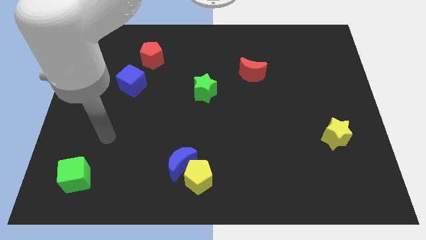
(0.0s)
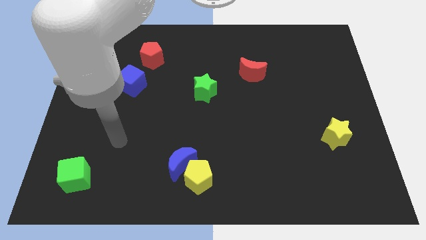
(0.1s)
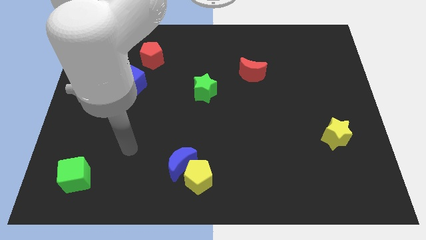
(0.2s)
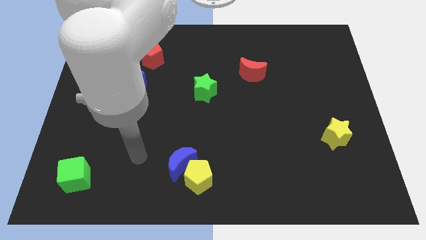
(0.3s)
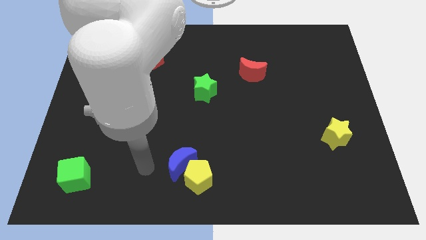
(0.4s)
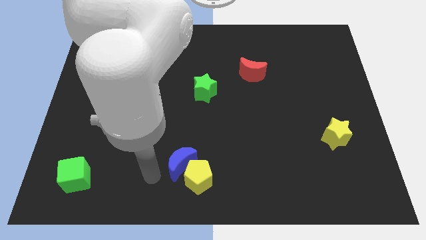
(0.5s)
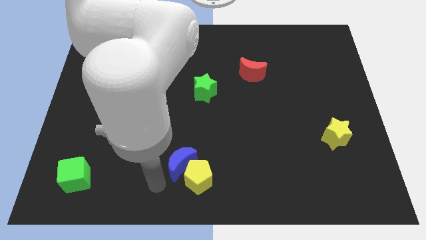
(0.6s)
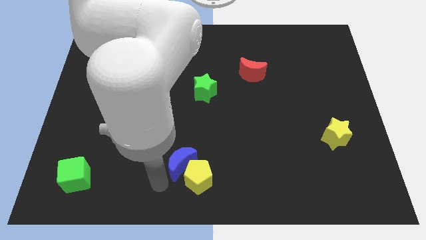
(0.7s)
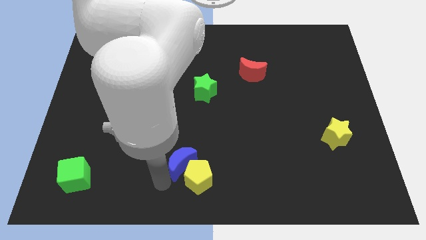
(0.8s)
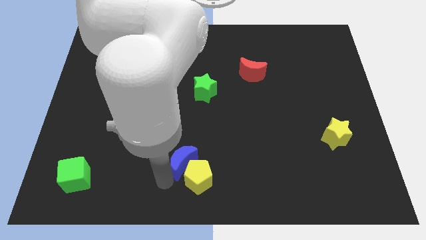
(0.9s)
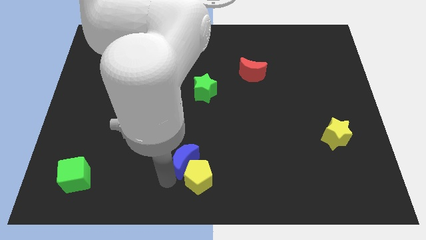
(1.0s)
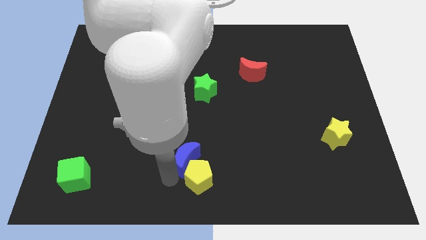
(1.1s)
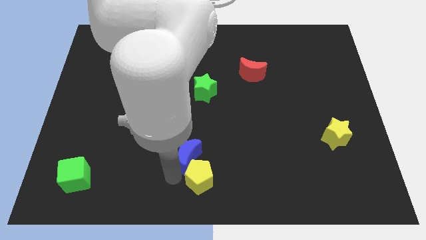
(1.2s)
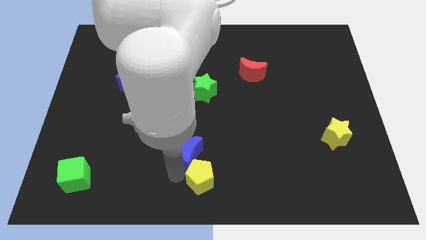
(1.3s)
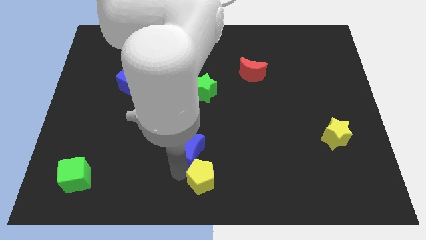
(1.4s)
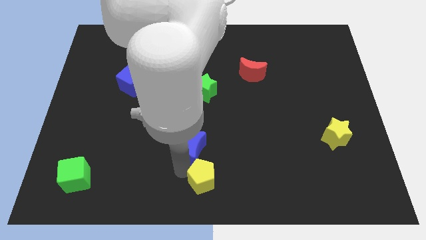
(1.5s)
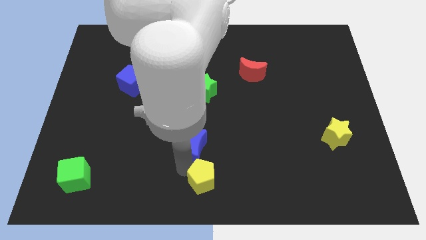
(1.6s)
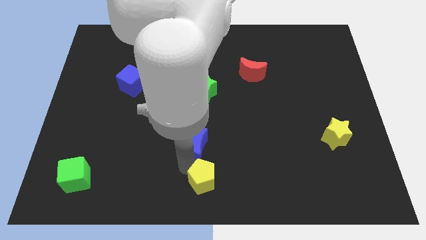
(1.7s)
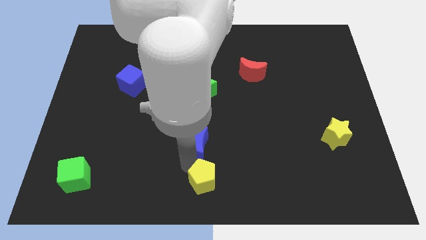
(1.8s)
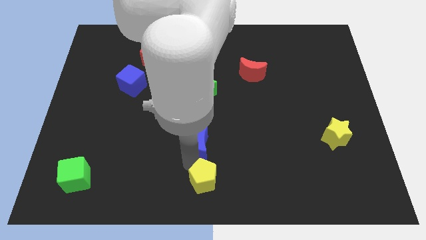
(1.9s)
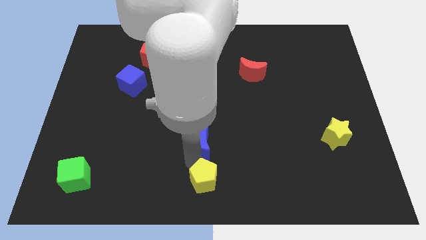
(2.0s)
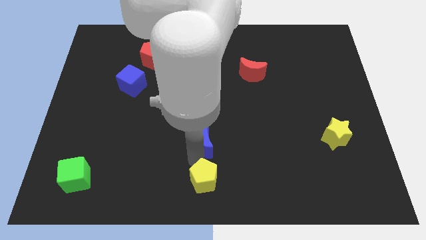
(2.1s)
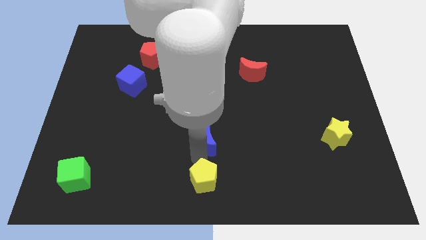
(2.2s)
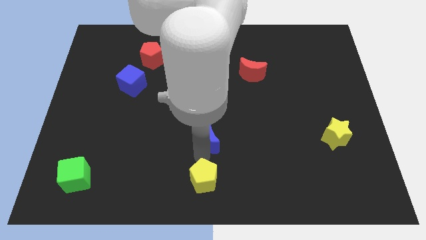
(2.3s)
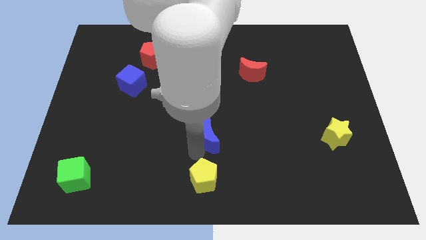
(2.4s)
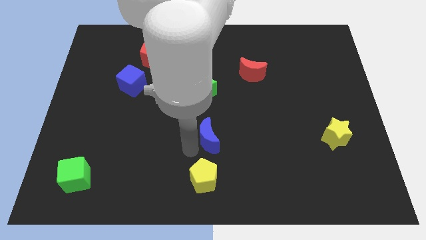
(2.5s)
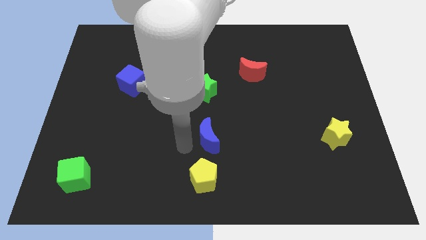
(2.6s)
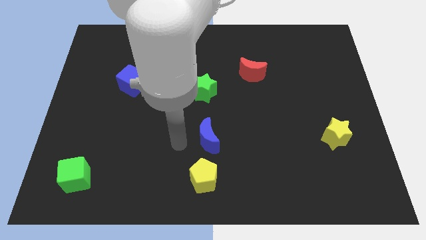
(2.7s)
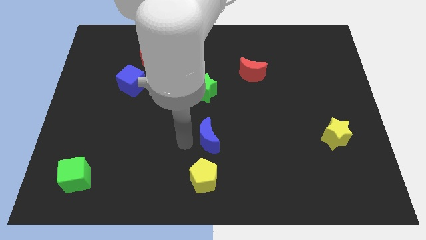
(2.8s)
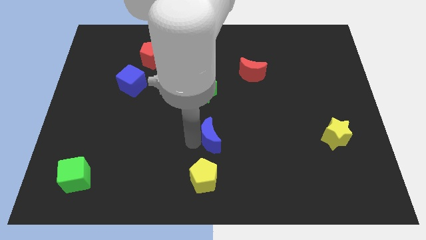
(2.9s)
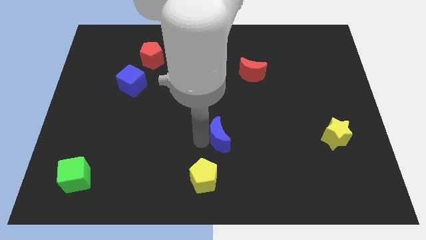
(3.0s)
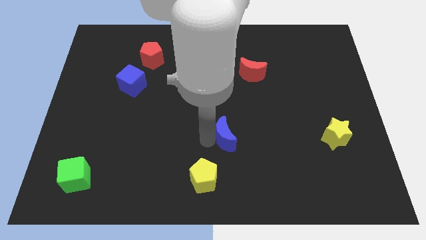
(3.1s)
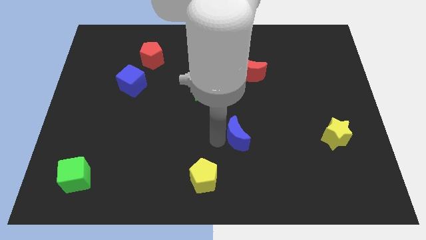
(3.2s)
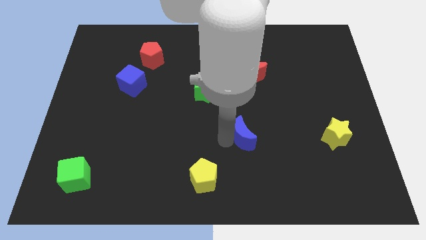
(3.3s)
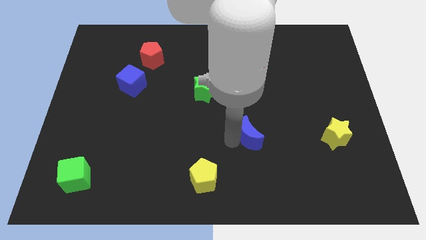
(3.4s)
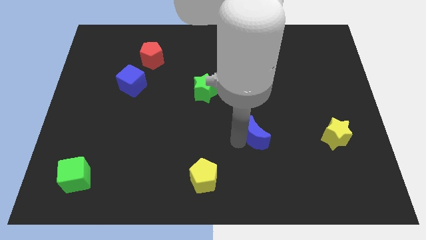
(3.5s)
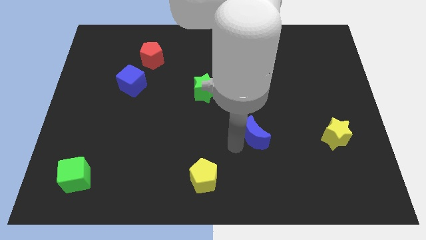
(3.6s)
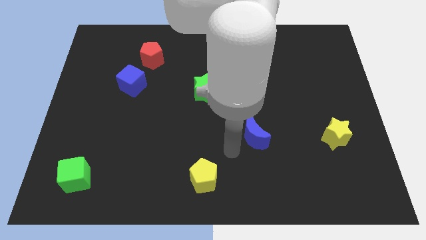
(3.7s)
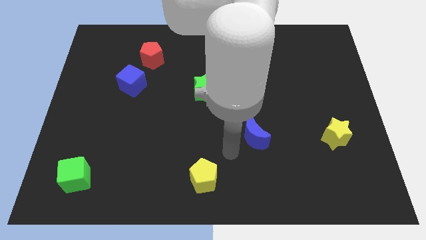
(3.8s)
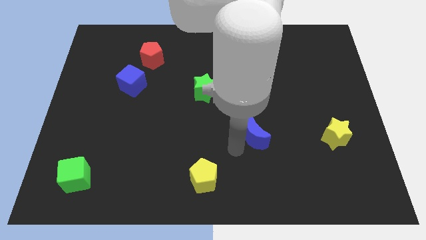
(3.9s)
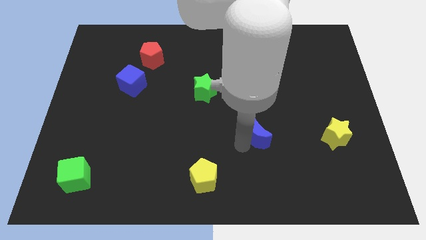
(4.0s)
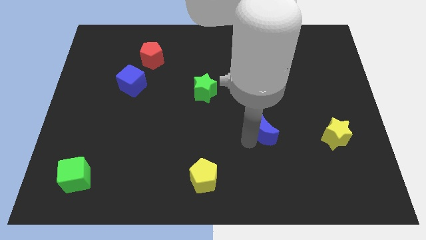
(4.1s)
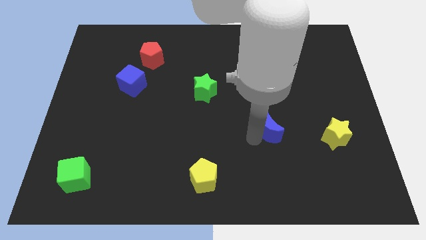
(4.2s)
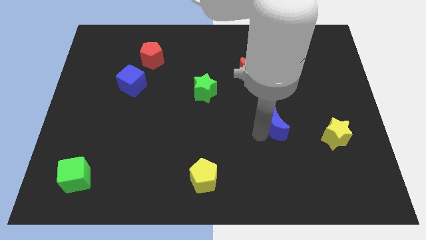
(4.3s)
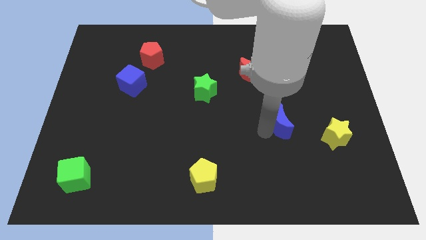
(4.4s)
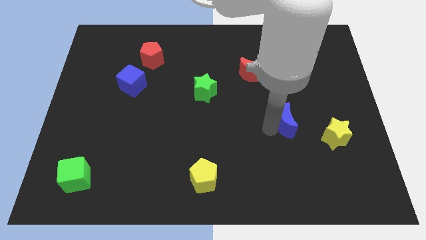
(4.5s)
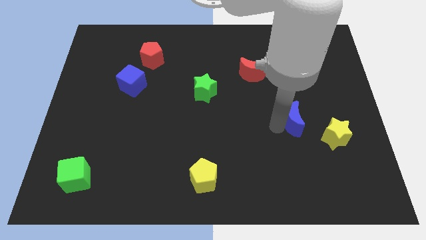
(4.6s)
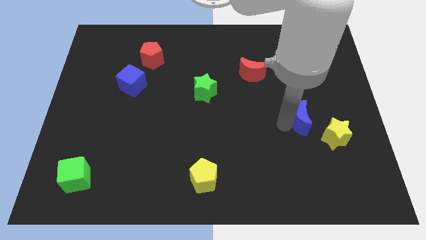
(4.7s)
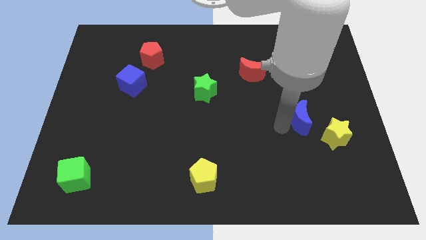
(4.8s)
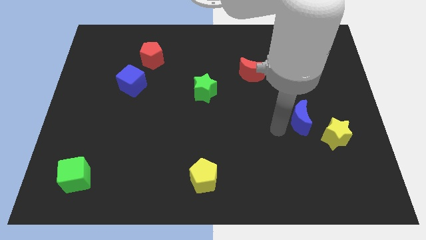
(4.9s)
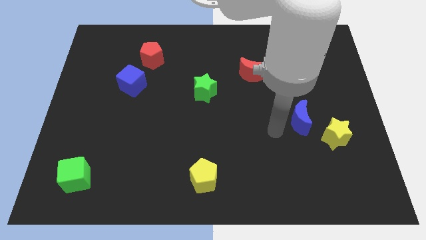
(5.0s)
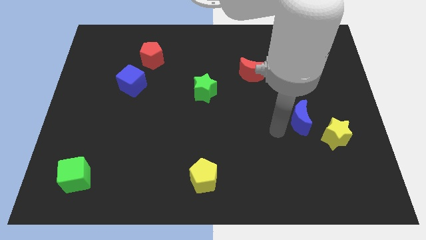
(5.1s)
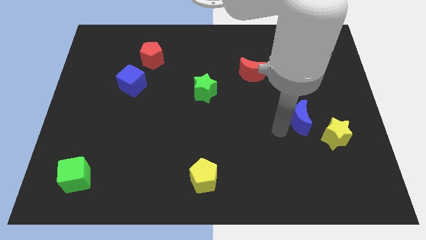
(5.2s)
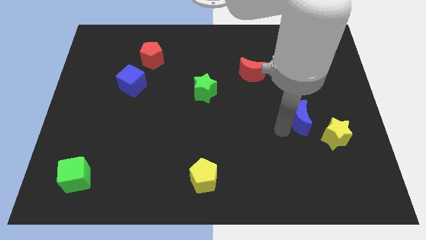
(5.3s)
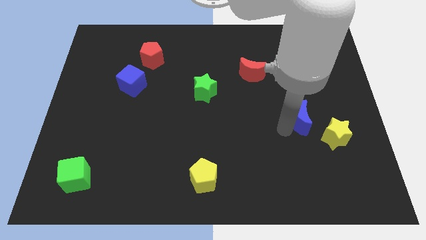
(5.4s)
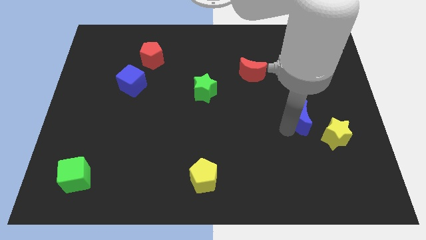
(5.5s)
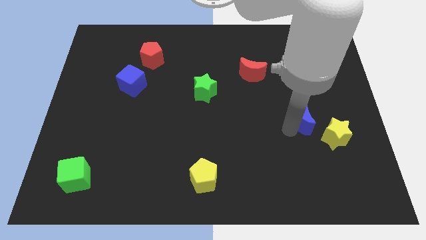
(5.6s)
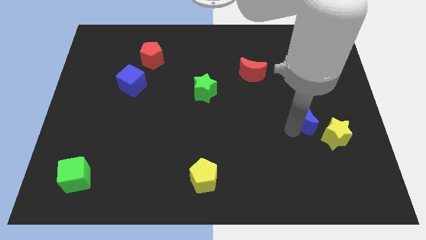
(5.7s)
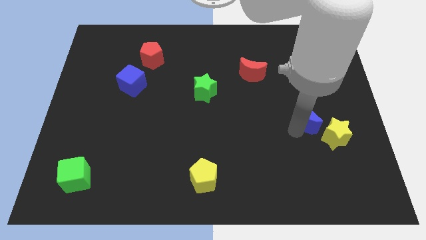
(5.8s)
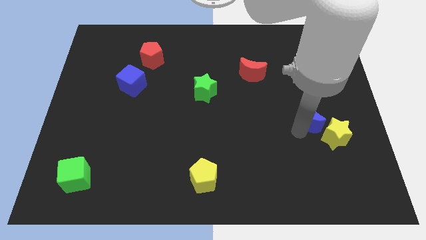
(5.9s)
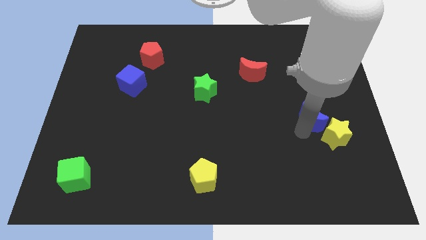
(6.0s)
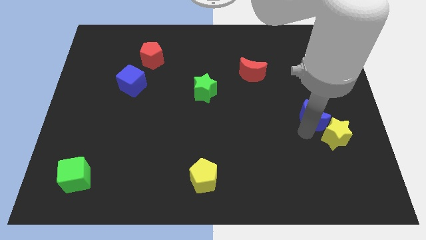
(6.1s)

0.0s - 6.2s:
push the blue moon to the top of the yellow star

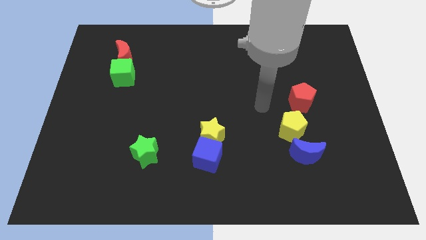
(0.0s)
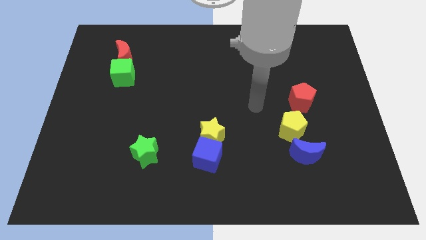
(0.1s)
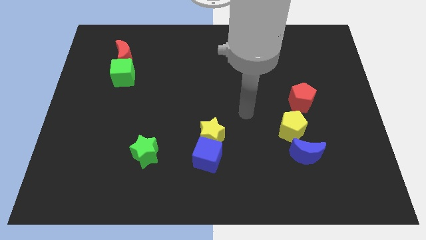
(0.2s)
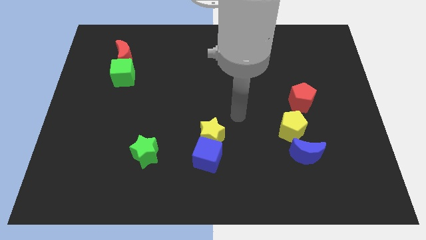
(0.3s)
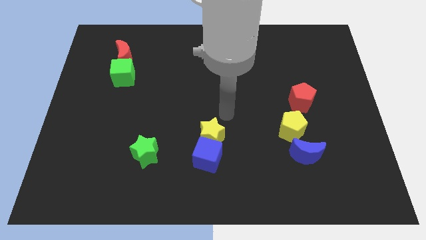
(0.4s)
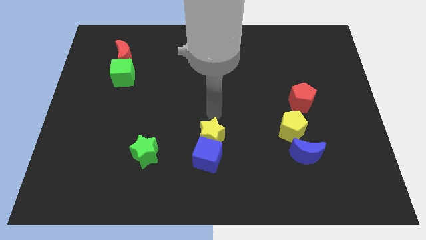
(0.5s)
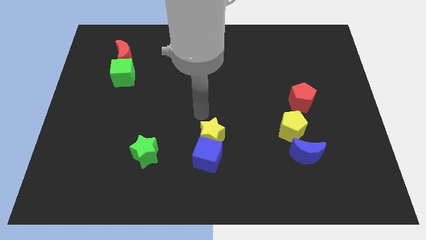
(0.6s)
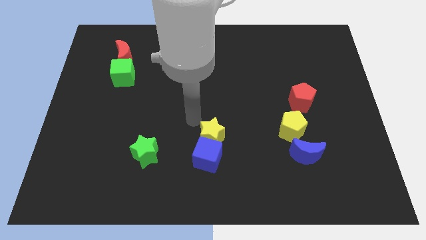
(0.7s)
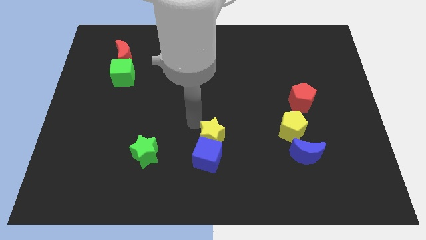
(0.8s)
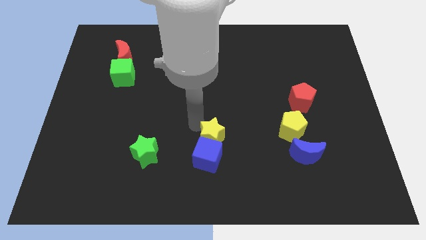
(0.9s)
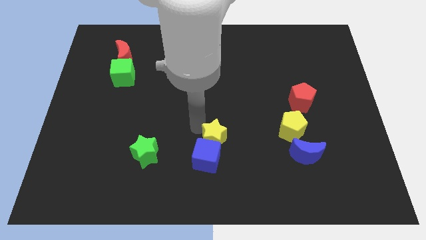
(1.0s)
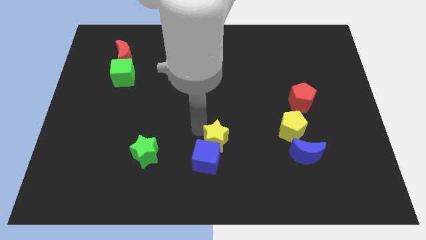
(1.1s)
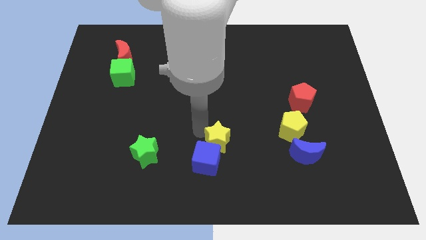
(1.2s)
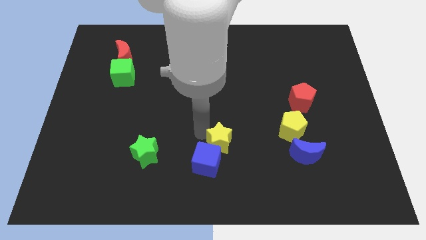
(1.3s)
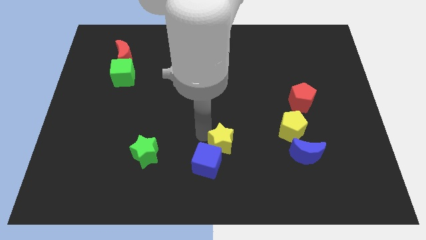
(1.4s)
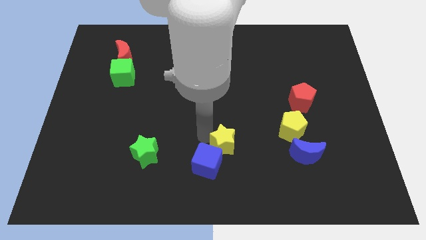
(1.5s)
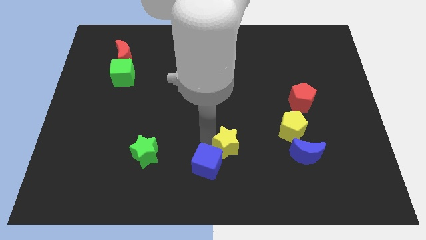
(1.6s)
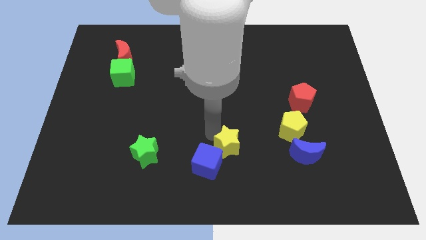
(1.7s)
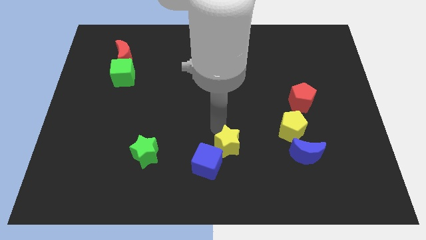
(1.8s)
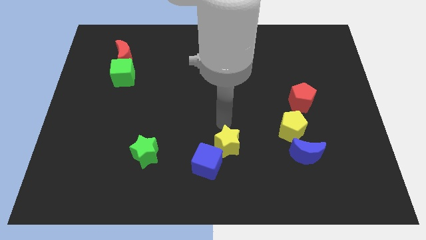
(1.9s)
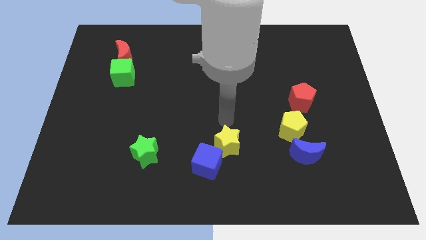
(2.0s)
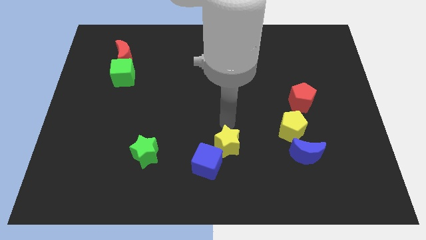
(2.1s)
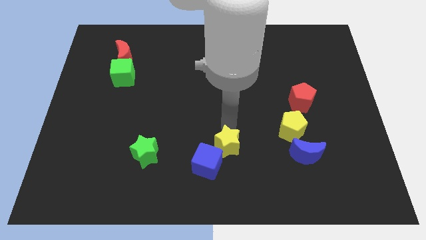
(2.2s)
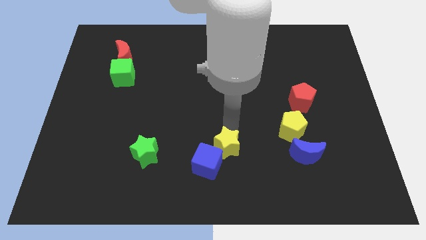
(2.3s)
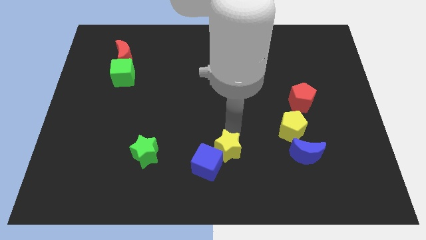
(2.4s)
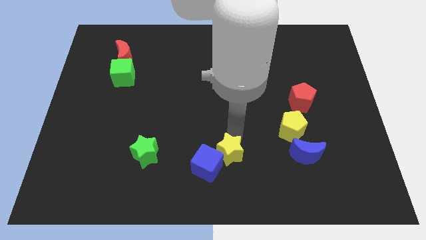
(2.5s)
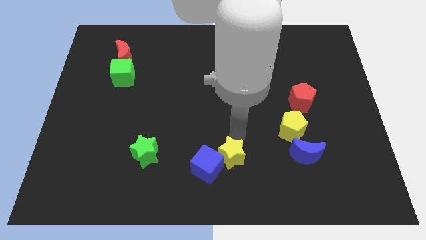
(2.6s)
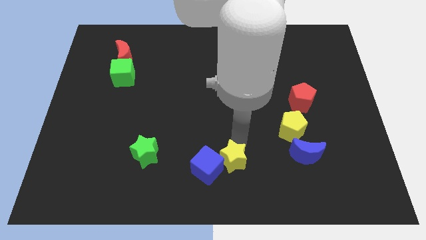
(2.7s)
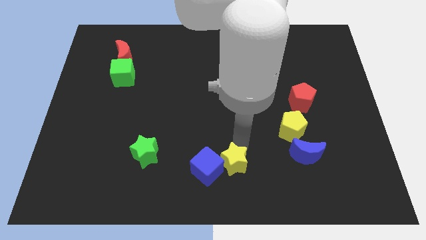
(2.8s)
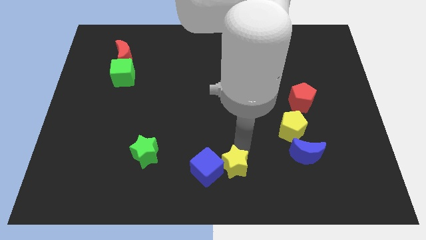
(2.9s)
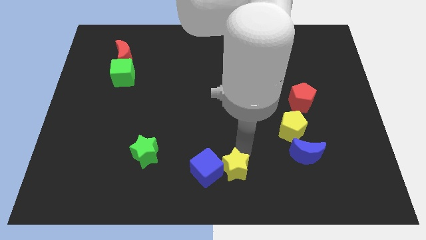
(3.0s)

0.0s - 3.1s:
push the yellow star to the bottom right side of the blue cube
